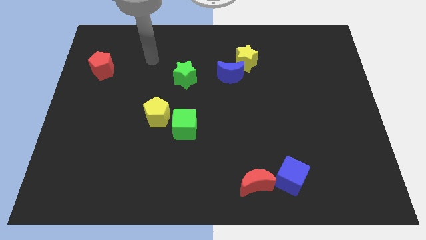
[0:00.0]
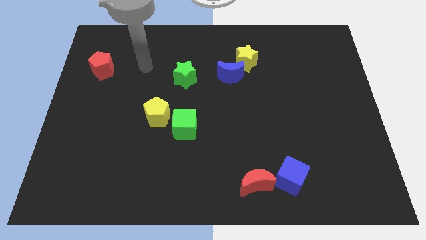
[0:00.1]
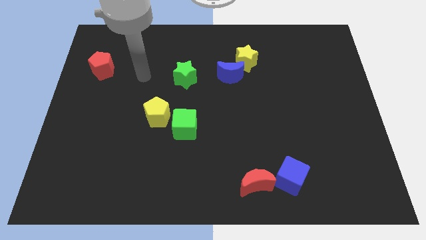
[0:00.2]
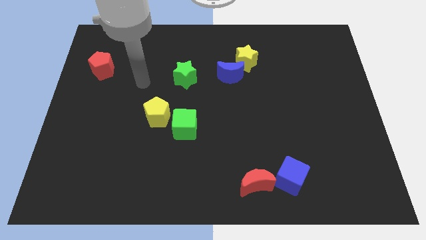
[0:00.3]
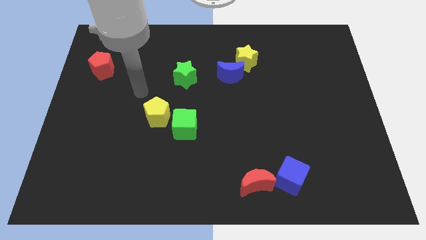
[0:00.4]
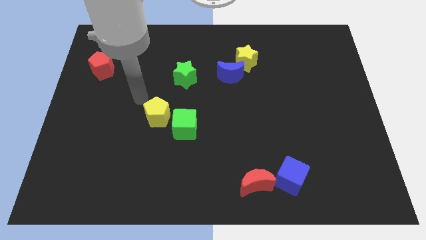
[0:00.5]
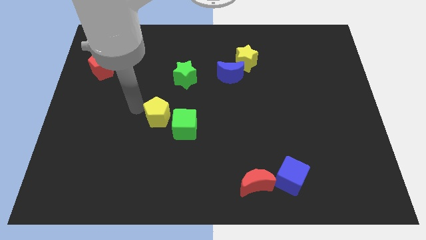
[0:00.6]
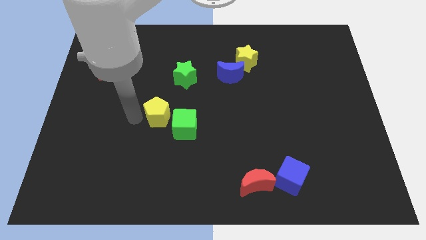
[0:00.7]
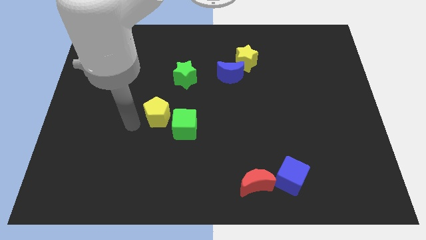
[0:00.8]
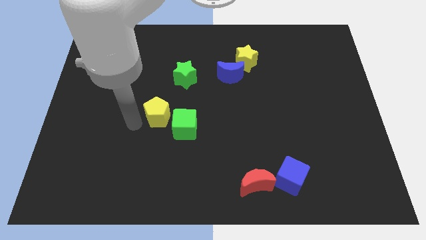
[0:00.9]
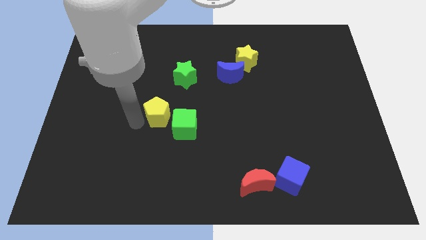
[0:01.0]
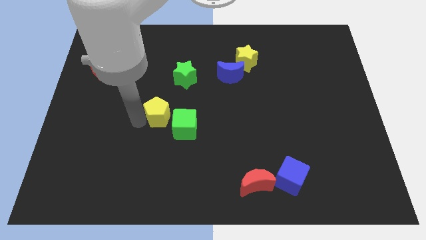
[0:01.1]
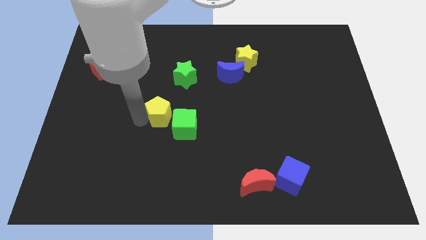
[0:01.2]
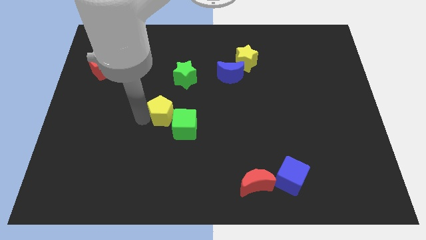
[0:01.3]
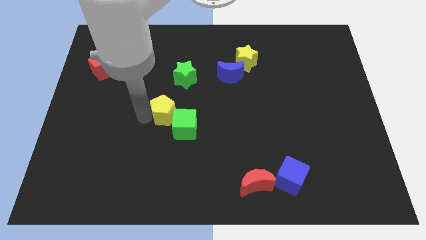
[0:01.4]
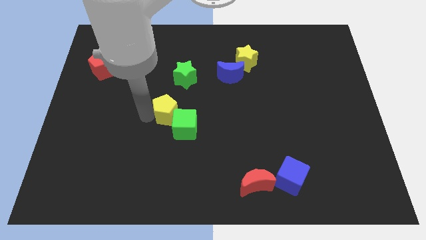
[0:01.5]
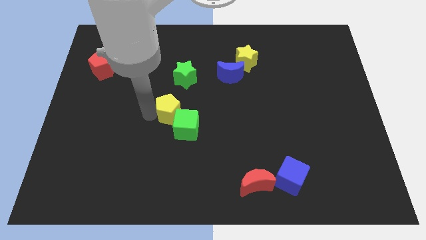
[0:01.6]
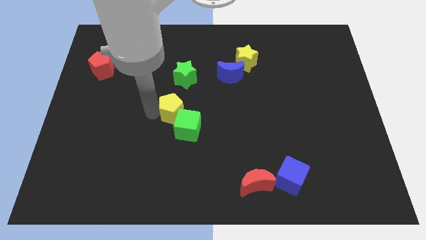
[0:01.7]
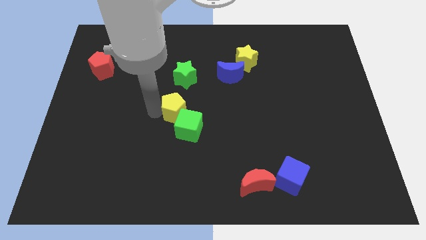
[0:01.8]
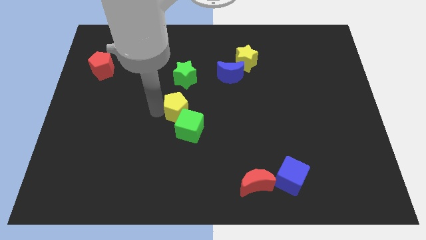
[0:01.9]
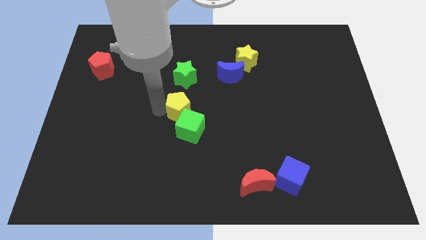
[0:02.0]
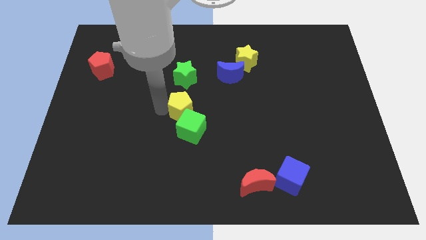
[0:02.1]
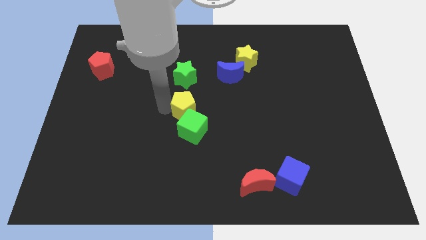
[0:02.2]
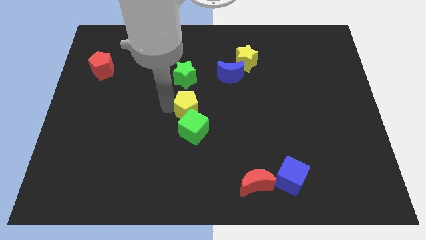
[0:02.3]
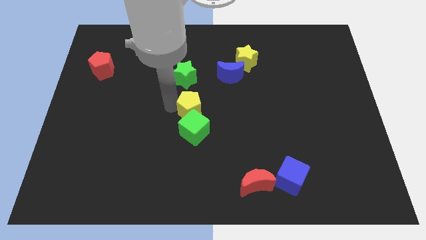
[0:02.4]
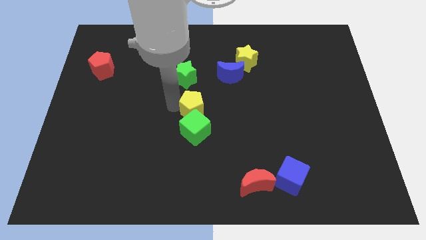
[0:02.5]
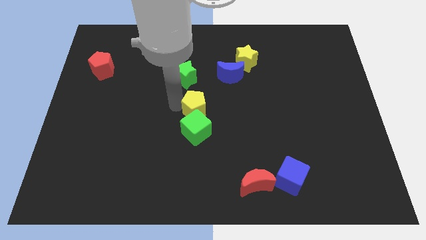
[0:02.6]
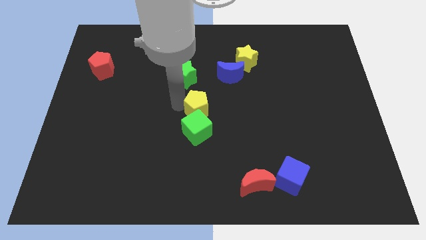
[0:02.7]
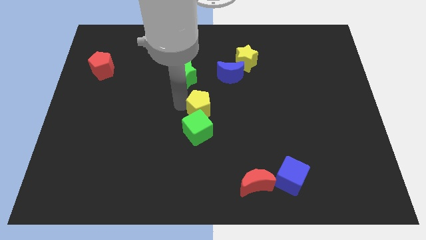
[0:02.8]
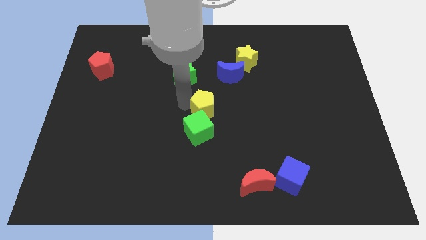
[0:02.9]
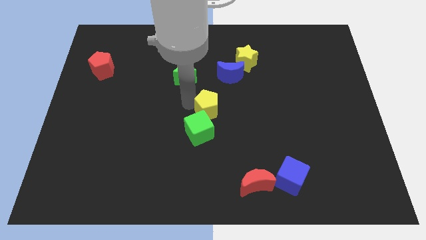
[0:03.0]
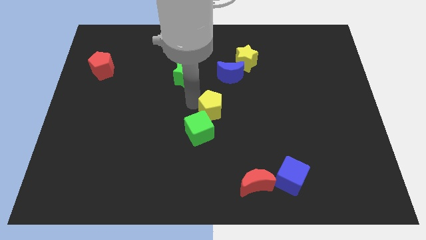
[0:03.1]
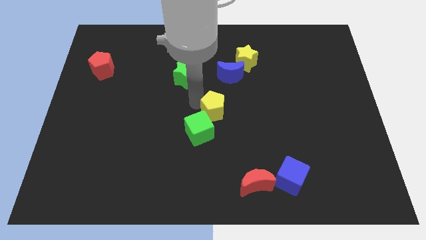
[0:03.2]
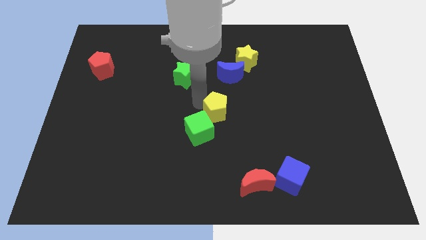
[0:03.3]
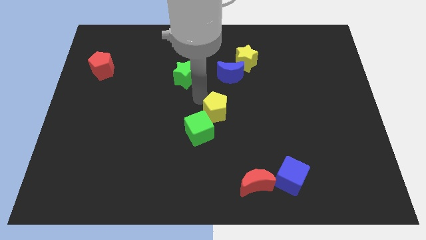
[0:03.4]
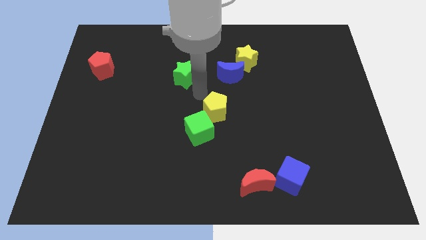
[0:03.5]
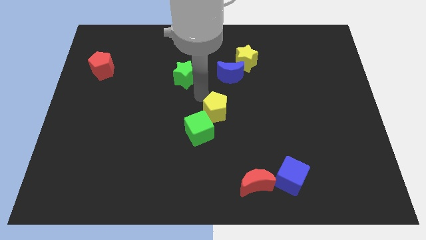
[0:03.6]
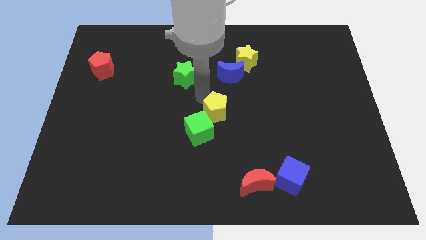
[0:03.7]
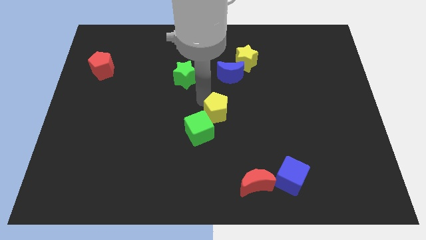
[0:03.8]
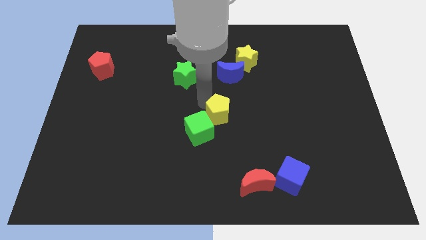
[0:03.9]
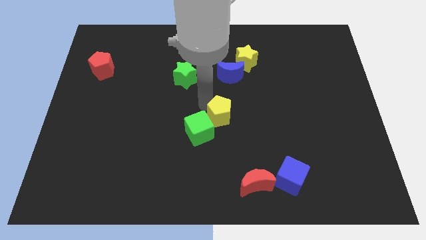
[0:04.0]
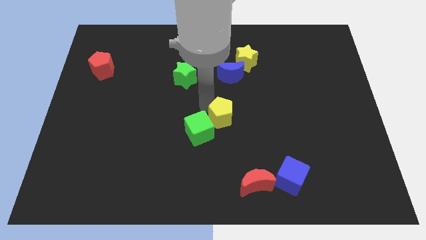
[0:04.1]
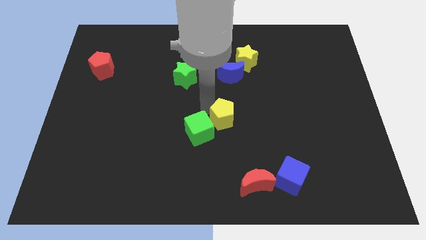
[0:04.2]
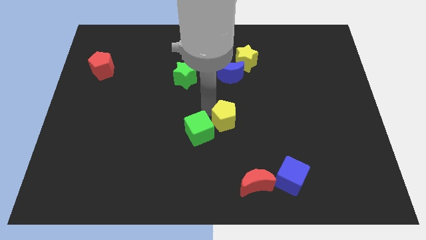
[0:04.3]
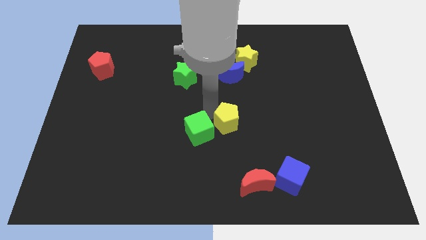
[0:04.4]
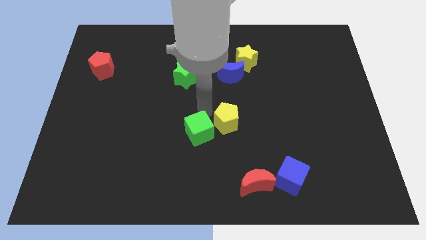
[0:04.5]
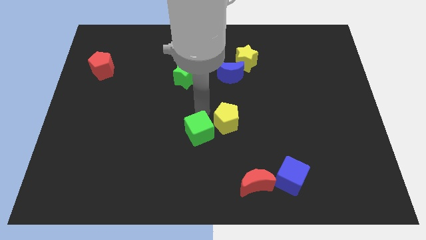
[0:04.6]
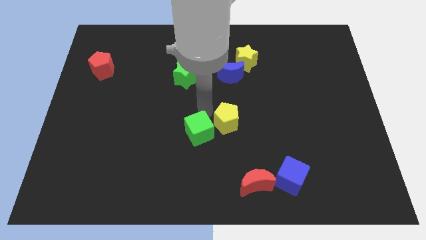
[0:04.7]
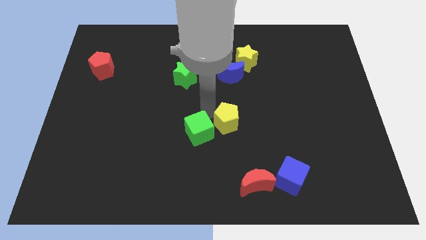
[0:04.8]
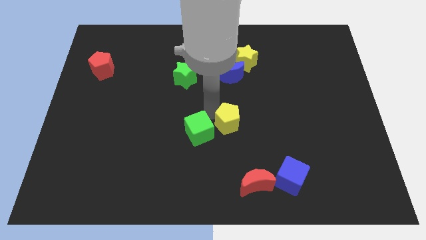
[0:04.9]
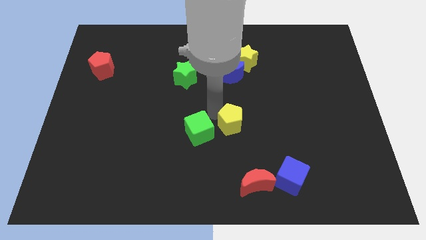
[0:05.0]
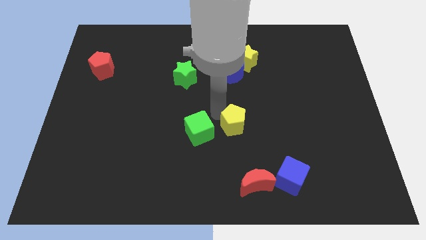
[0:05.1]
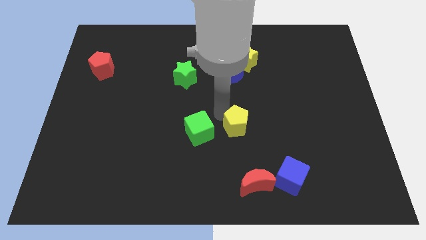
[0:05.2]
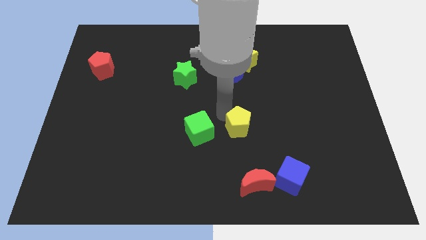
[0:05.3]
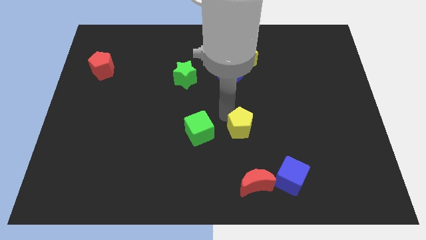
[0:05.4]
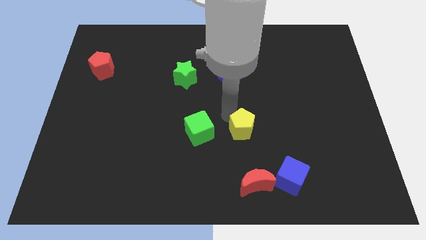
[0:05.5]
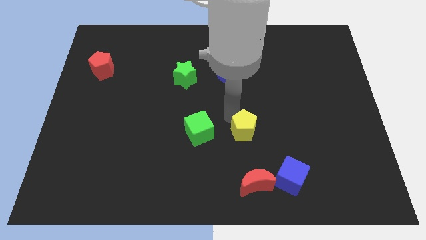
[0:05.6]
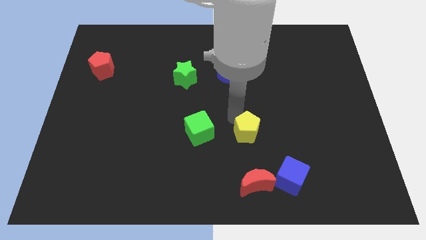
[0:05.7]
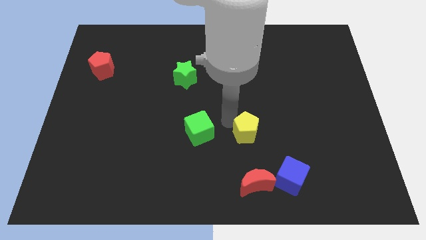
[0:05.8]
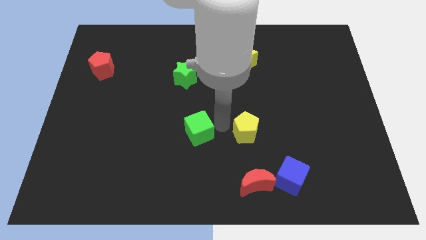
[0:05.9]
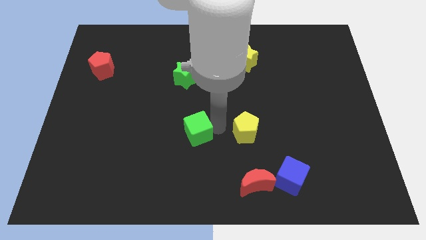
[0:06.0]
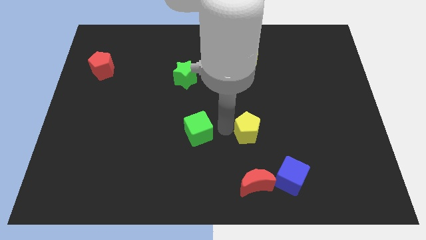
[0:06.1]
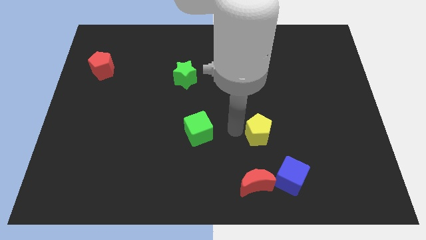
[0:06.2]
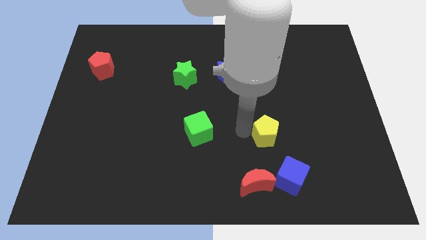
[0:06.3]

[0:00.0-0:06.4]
put the yellow pentagon above the blue cube

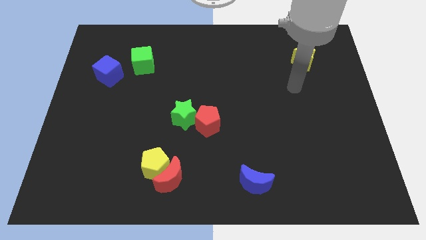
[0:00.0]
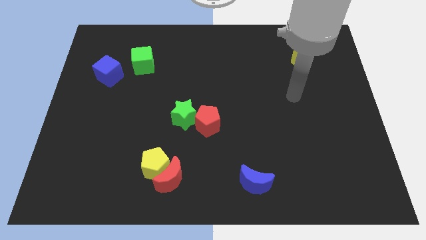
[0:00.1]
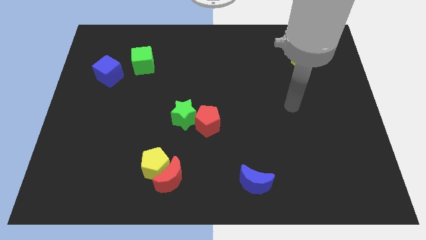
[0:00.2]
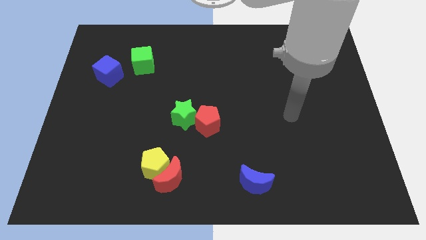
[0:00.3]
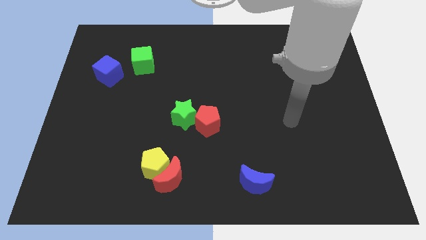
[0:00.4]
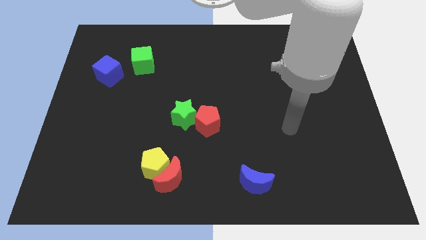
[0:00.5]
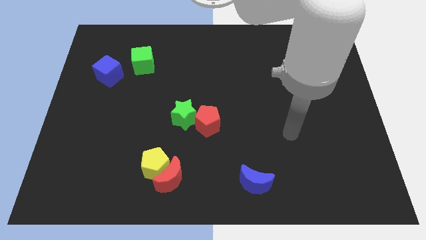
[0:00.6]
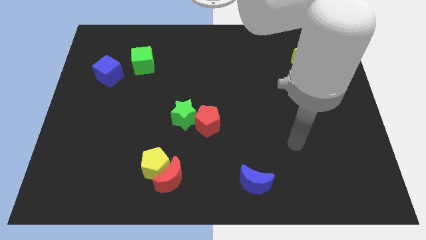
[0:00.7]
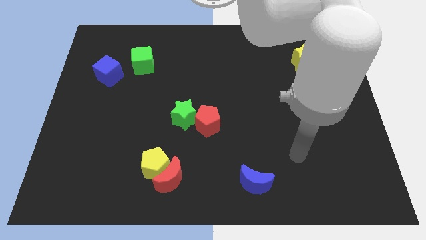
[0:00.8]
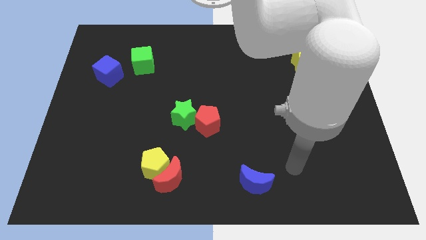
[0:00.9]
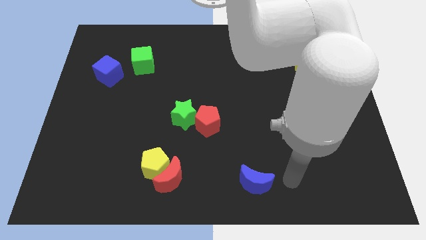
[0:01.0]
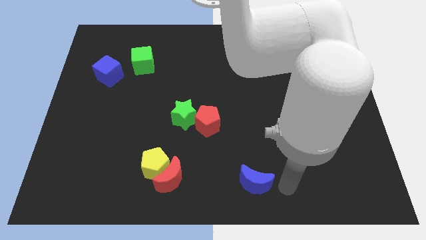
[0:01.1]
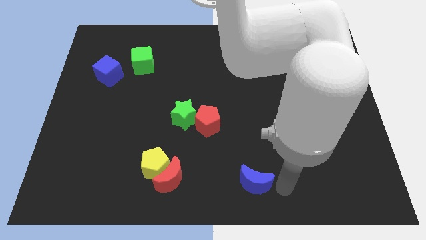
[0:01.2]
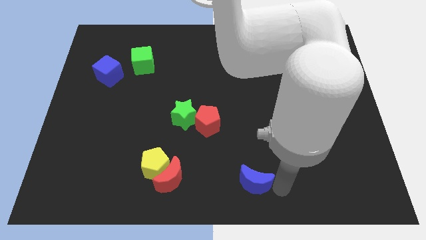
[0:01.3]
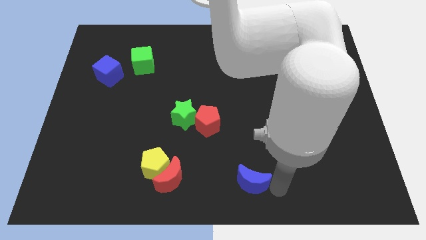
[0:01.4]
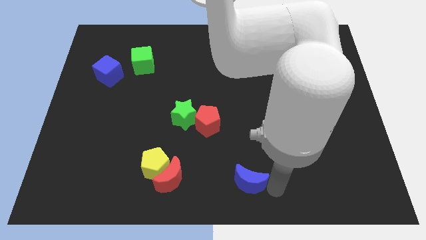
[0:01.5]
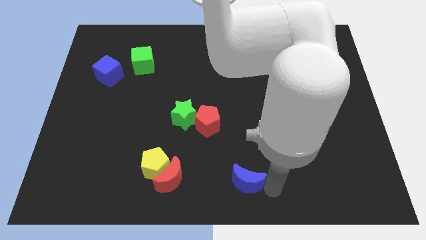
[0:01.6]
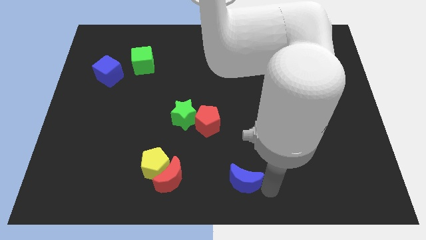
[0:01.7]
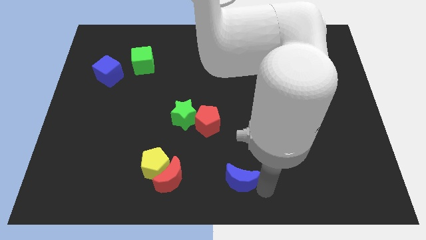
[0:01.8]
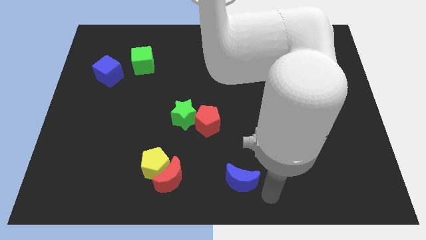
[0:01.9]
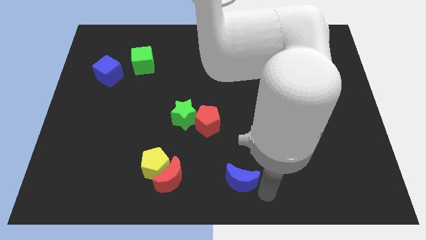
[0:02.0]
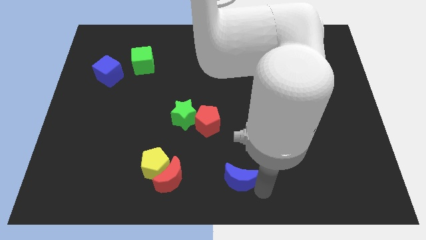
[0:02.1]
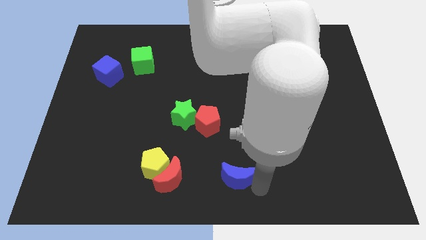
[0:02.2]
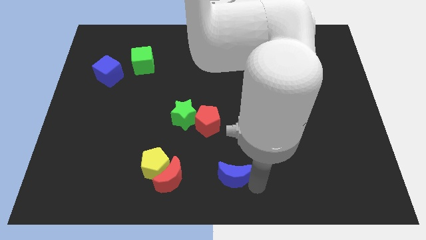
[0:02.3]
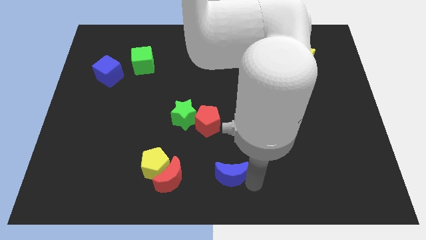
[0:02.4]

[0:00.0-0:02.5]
put the blue moon right of the yellow pentagon
